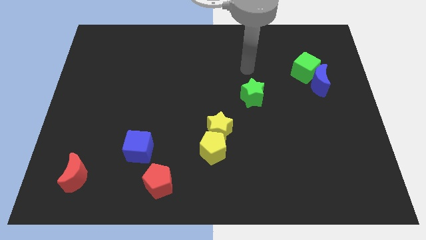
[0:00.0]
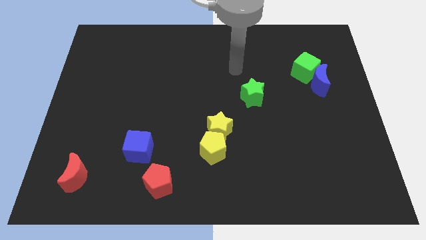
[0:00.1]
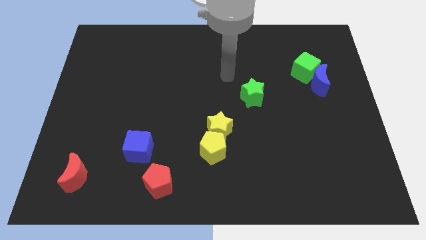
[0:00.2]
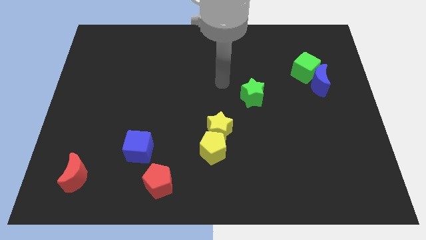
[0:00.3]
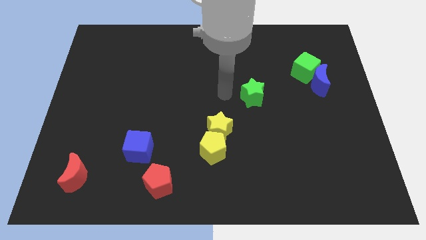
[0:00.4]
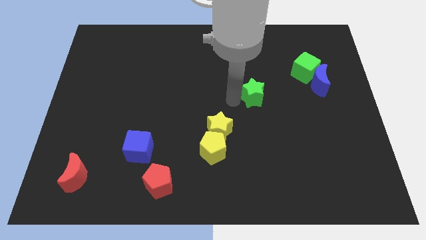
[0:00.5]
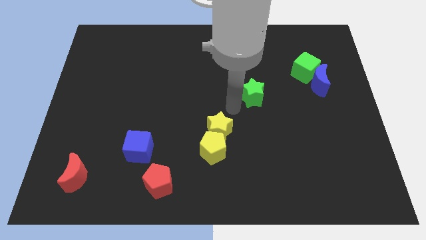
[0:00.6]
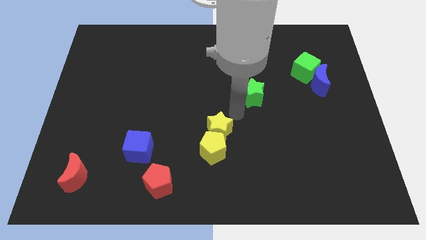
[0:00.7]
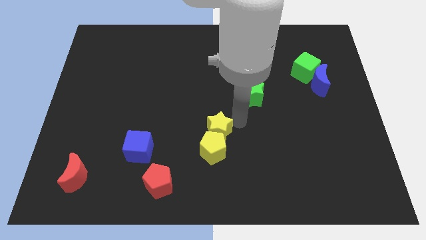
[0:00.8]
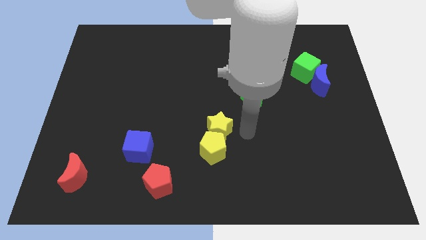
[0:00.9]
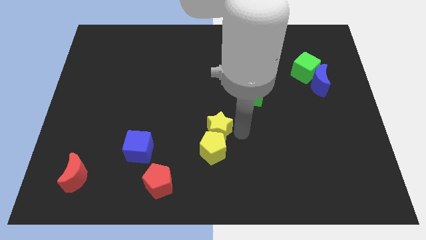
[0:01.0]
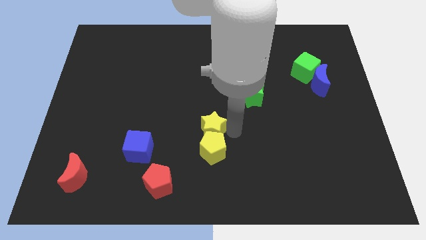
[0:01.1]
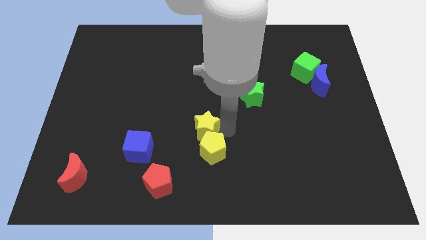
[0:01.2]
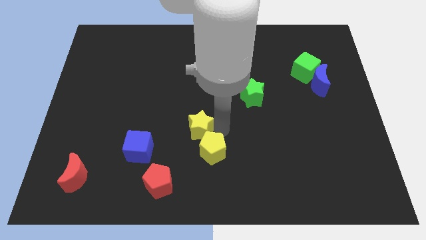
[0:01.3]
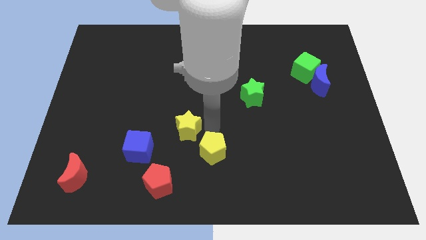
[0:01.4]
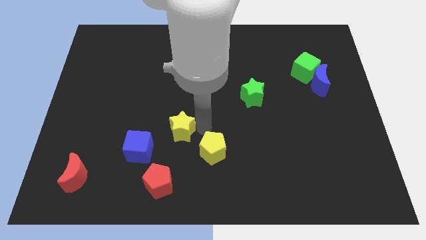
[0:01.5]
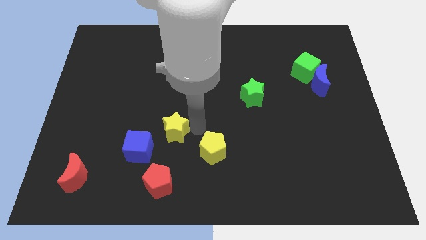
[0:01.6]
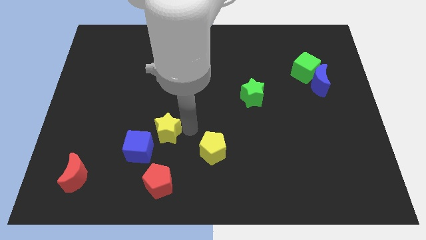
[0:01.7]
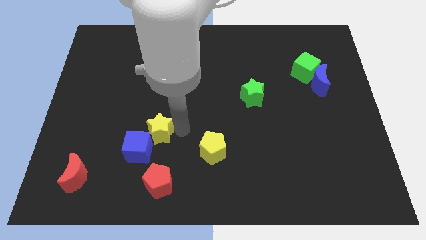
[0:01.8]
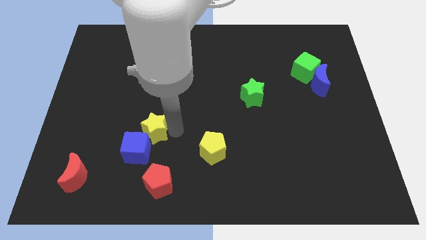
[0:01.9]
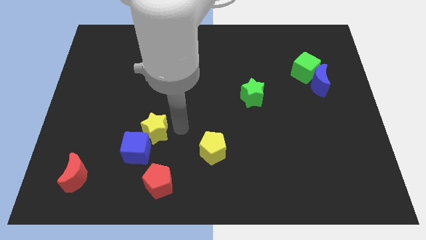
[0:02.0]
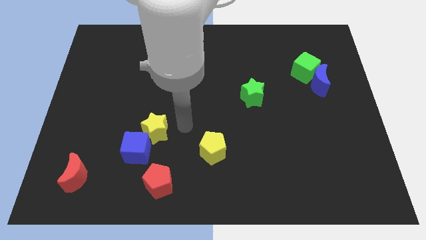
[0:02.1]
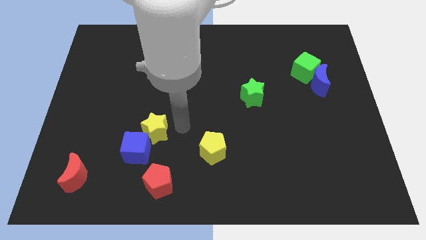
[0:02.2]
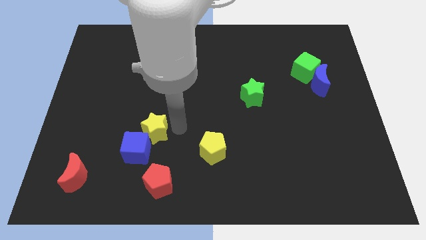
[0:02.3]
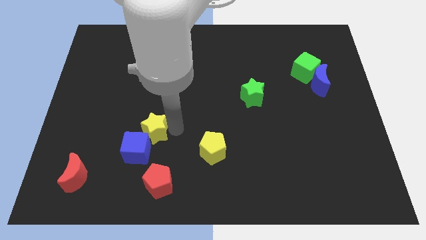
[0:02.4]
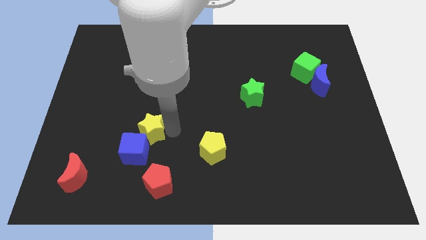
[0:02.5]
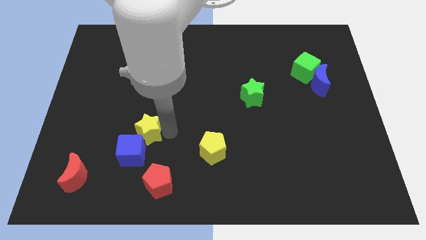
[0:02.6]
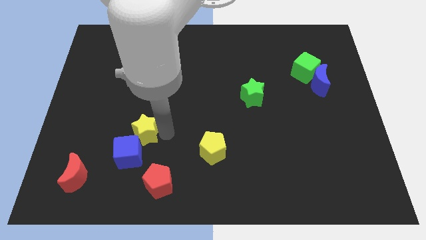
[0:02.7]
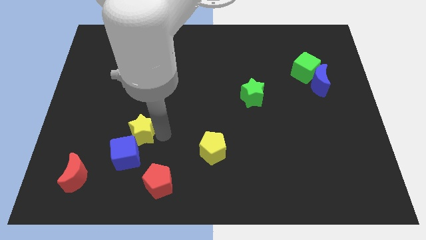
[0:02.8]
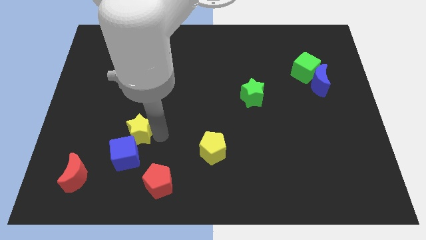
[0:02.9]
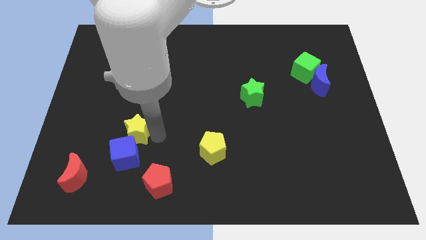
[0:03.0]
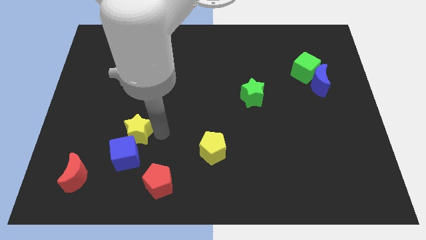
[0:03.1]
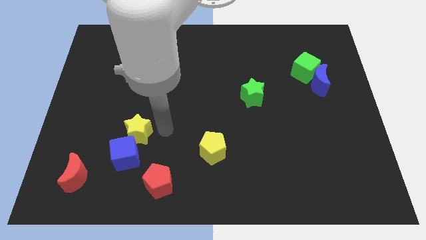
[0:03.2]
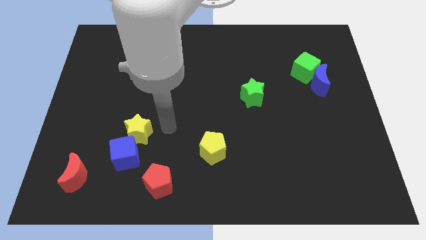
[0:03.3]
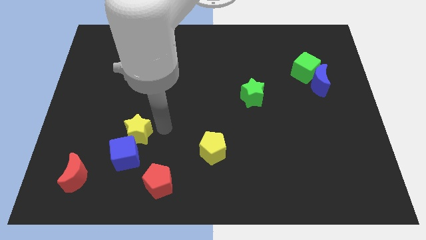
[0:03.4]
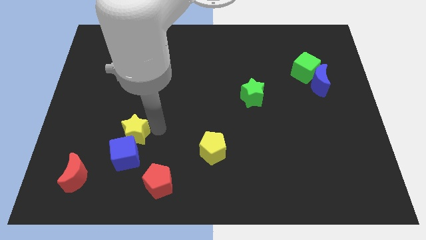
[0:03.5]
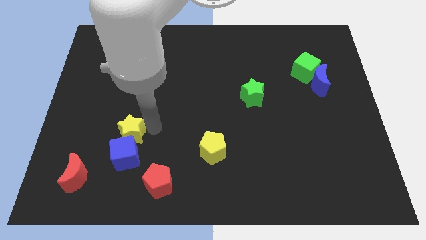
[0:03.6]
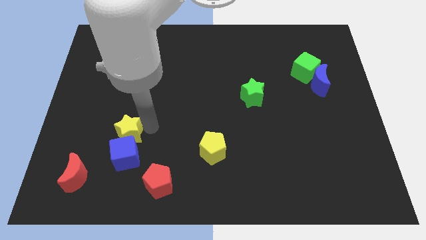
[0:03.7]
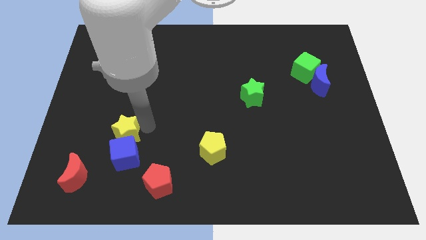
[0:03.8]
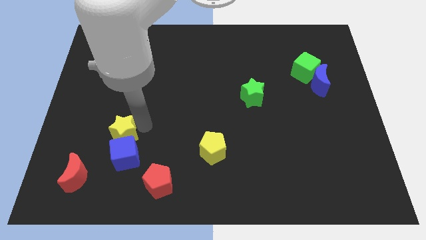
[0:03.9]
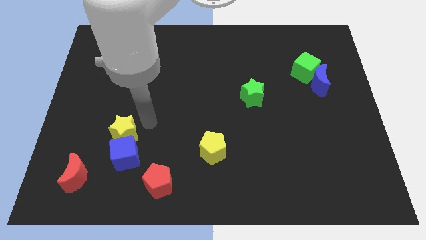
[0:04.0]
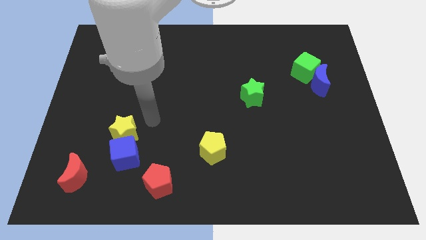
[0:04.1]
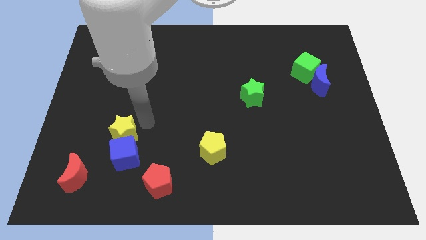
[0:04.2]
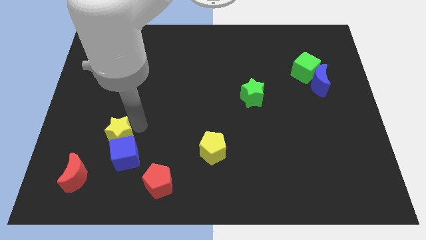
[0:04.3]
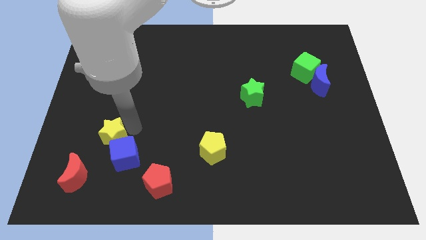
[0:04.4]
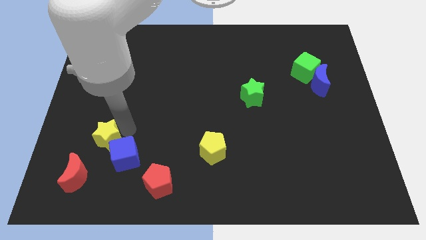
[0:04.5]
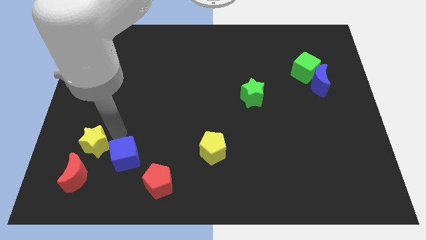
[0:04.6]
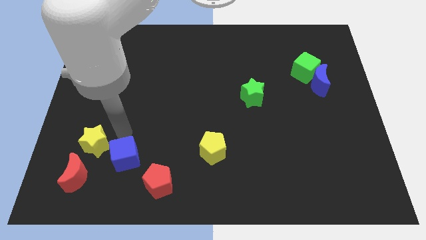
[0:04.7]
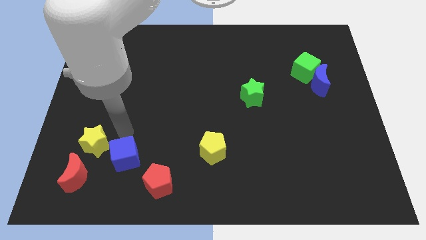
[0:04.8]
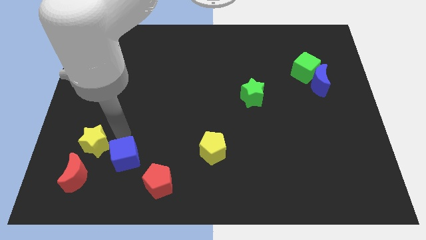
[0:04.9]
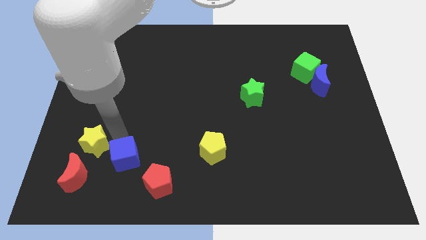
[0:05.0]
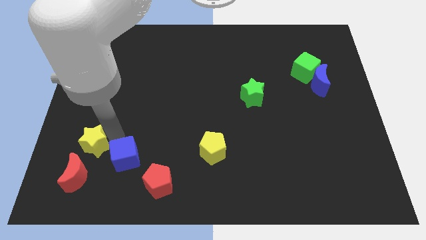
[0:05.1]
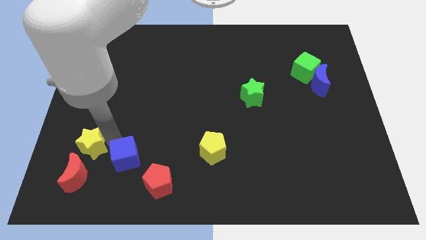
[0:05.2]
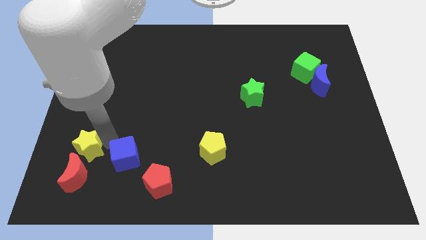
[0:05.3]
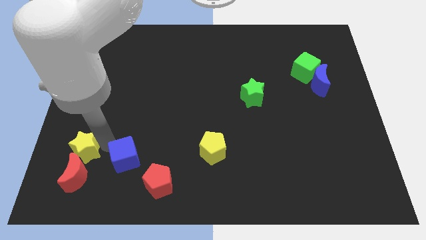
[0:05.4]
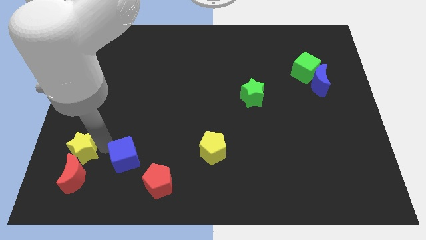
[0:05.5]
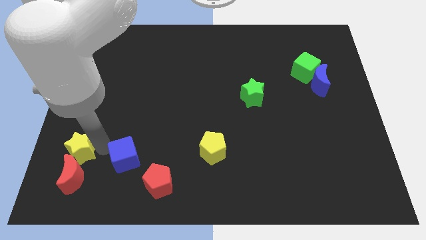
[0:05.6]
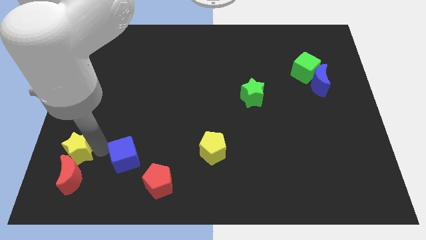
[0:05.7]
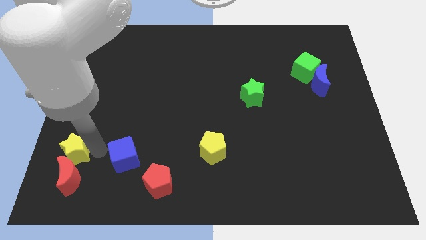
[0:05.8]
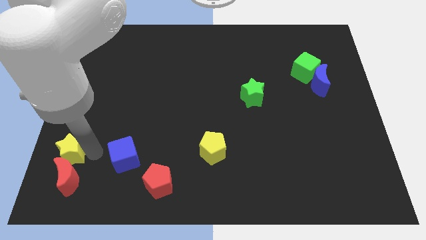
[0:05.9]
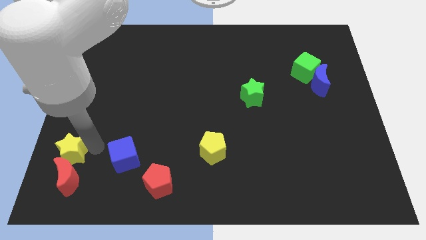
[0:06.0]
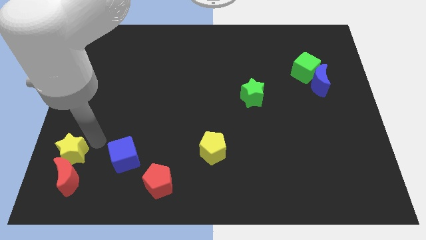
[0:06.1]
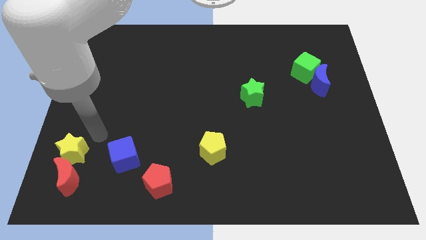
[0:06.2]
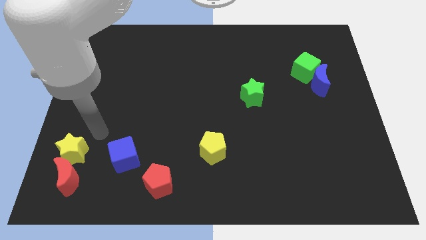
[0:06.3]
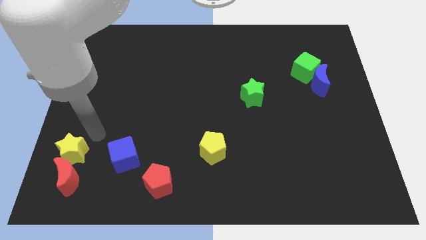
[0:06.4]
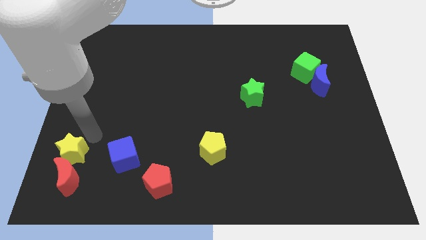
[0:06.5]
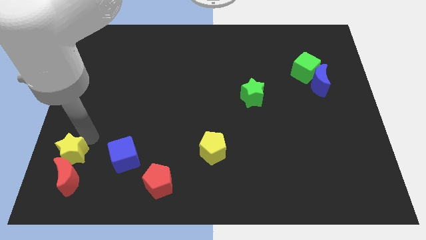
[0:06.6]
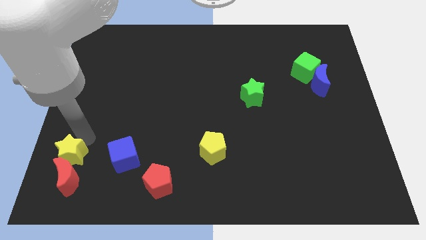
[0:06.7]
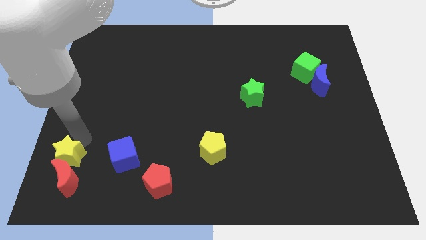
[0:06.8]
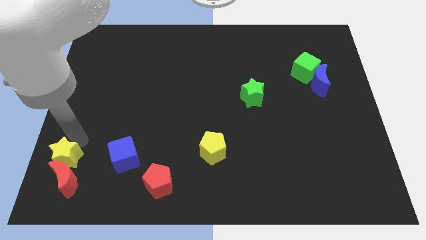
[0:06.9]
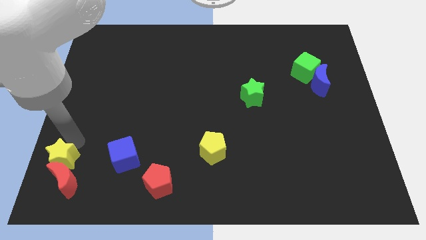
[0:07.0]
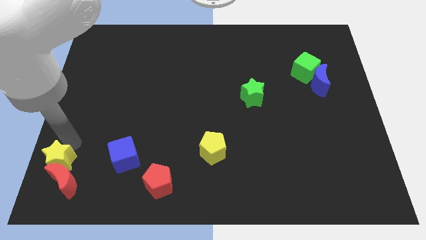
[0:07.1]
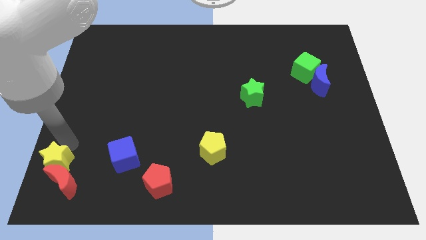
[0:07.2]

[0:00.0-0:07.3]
move the yellow star to the lower left corner
